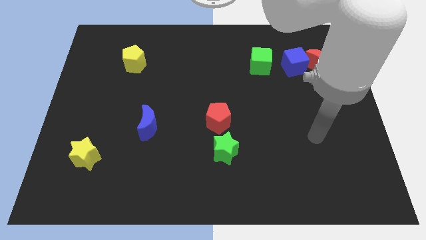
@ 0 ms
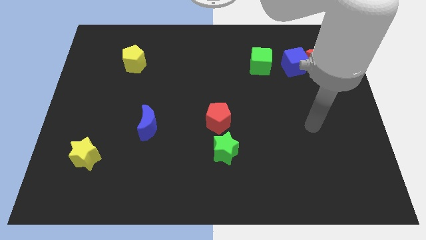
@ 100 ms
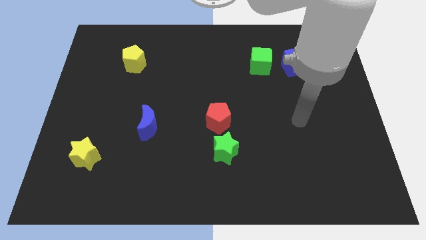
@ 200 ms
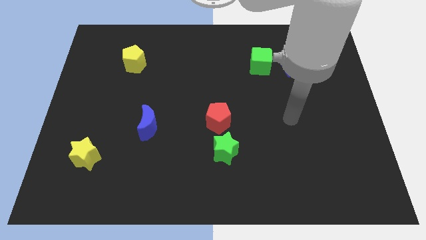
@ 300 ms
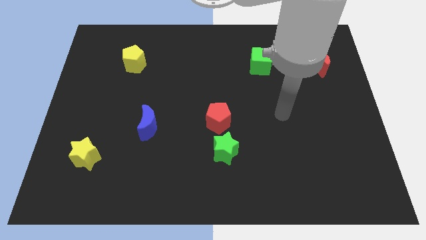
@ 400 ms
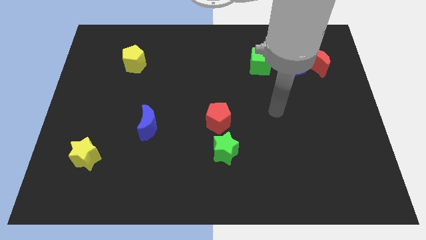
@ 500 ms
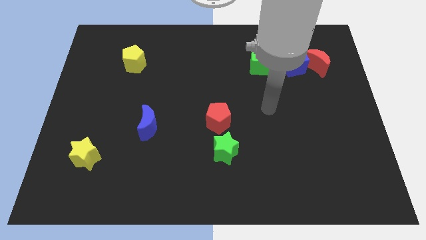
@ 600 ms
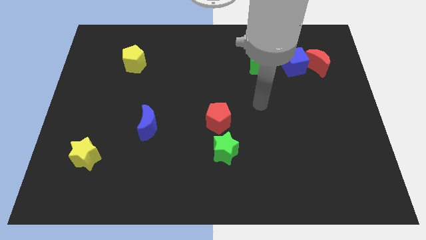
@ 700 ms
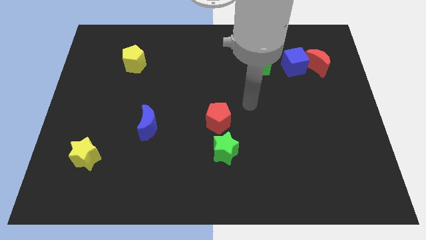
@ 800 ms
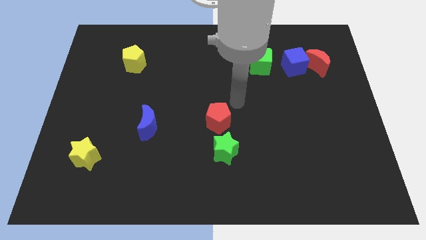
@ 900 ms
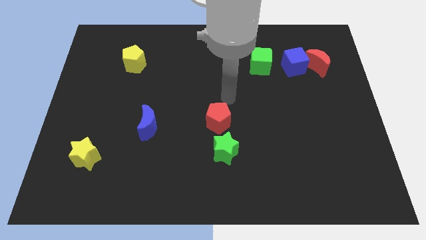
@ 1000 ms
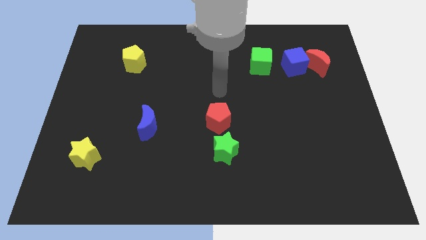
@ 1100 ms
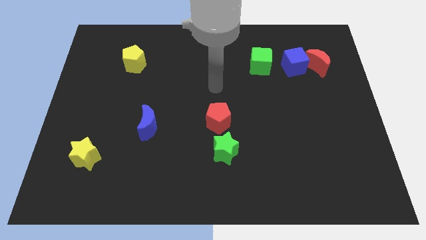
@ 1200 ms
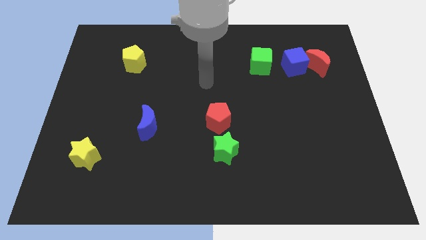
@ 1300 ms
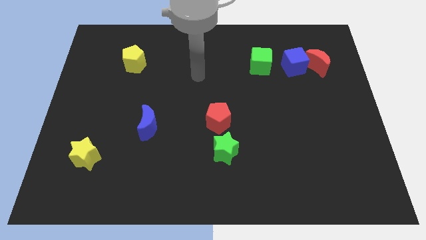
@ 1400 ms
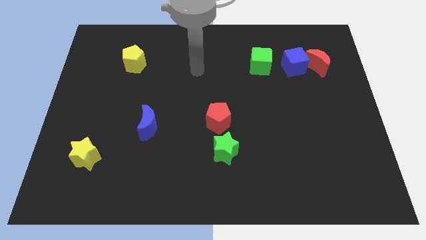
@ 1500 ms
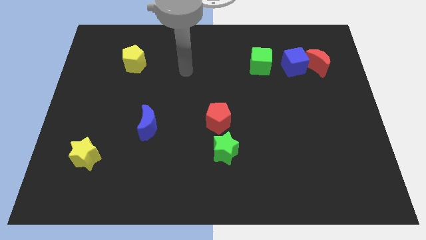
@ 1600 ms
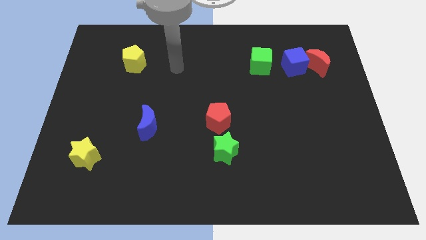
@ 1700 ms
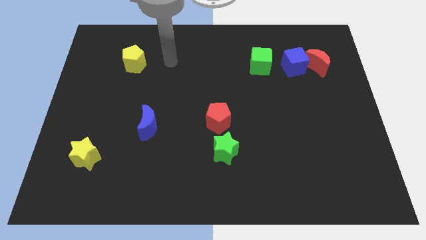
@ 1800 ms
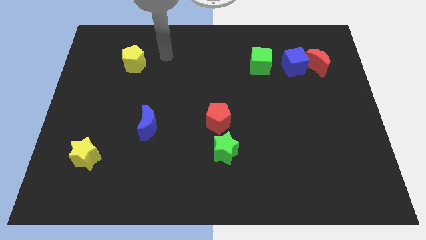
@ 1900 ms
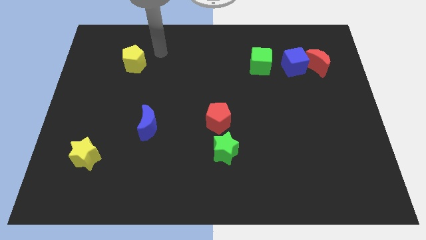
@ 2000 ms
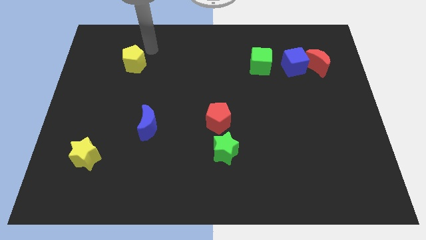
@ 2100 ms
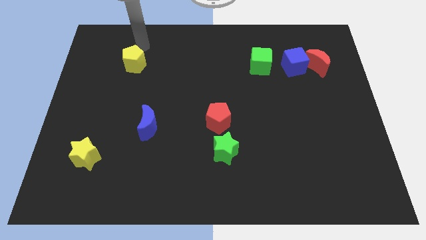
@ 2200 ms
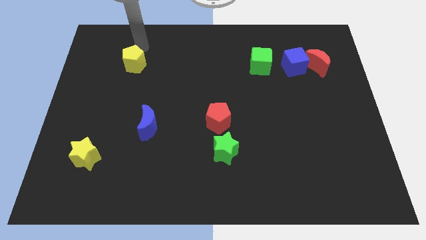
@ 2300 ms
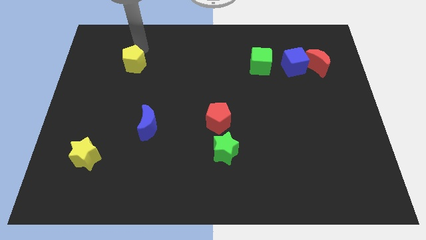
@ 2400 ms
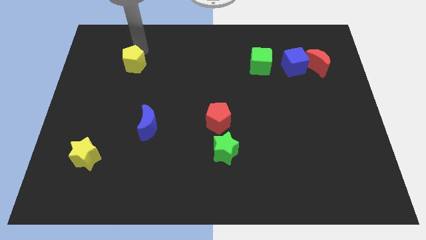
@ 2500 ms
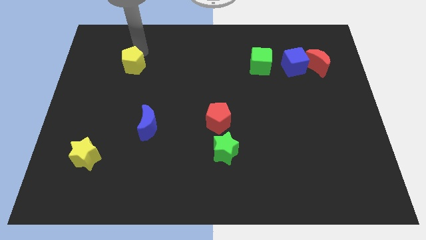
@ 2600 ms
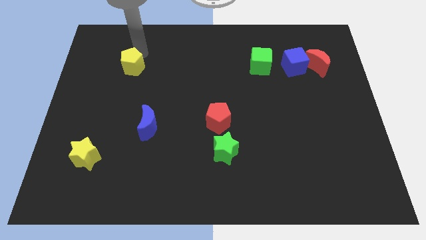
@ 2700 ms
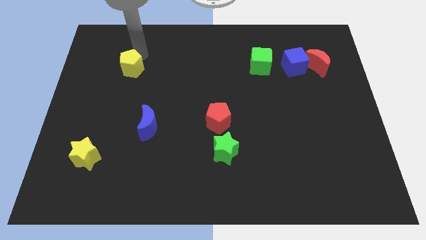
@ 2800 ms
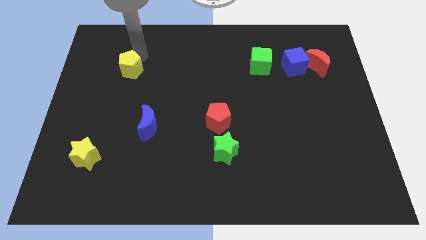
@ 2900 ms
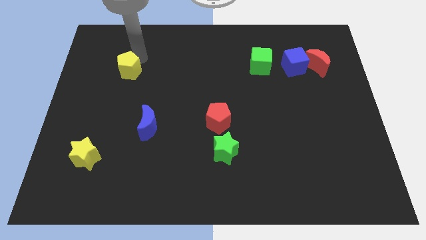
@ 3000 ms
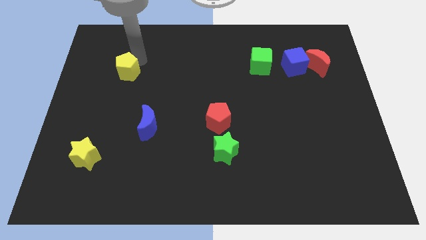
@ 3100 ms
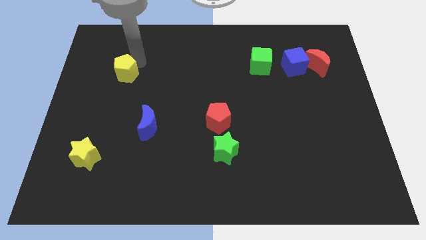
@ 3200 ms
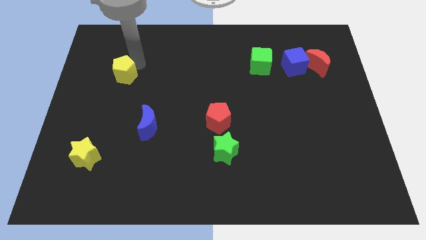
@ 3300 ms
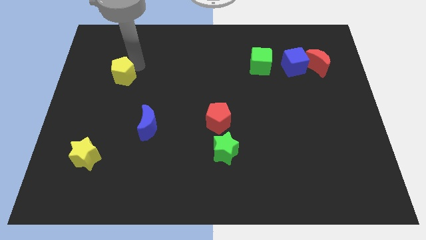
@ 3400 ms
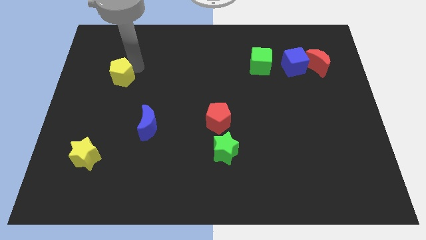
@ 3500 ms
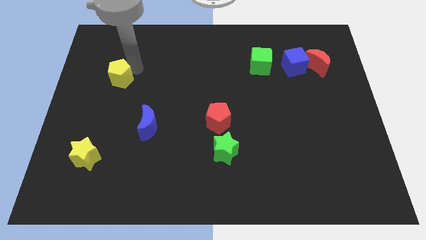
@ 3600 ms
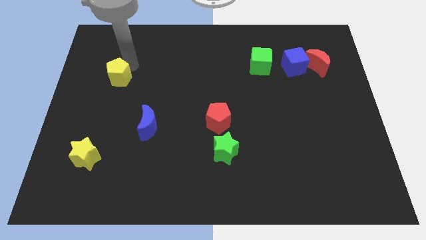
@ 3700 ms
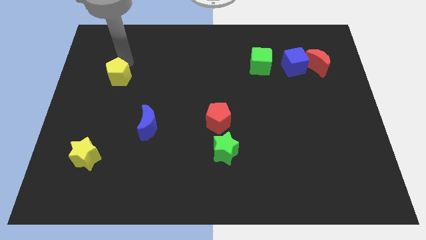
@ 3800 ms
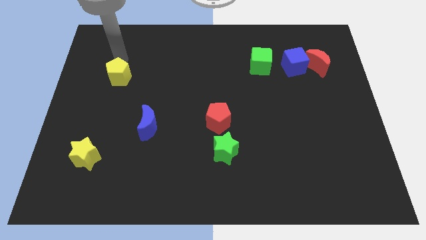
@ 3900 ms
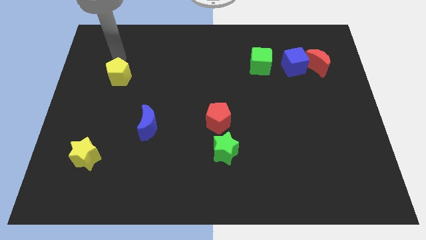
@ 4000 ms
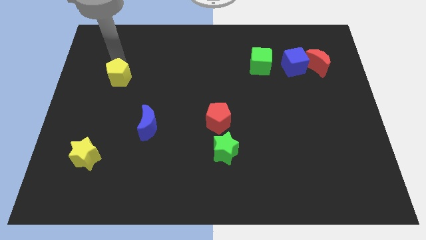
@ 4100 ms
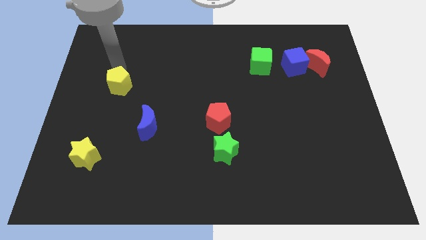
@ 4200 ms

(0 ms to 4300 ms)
push the yellow pentagon somewhat downwards

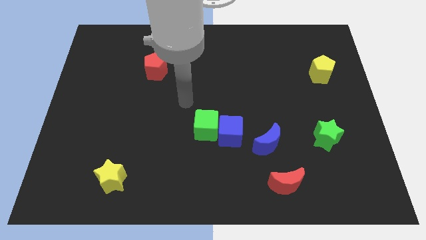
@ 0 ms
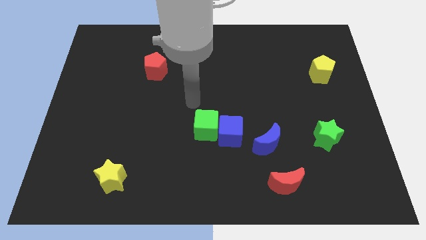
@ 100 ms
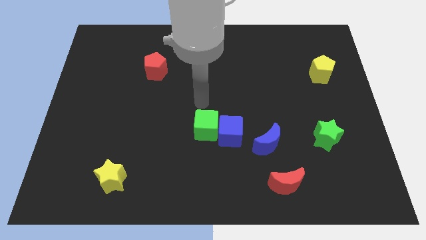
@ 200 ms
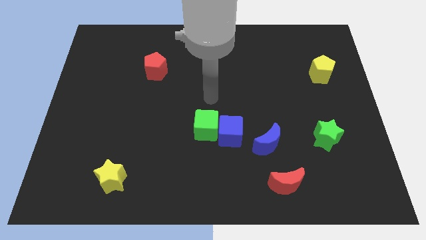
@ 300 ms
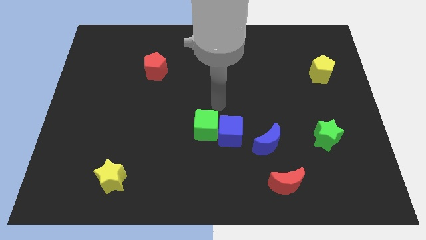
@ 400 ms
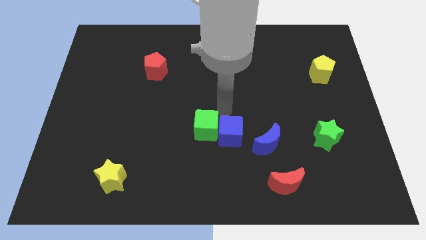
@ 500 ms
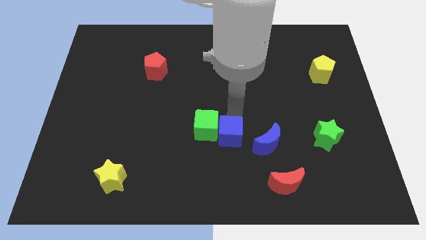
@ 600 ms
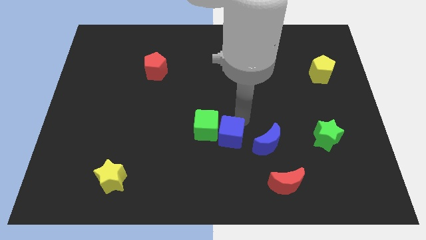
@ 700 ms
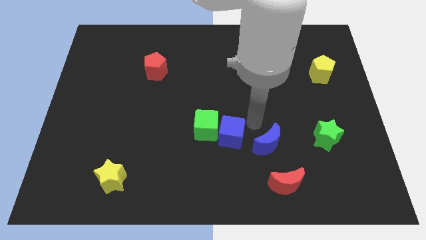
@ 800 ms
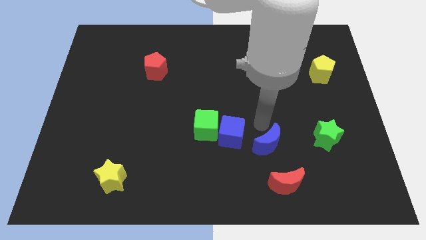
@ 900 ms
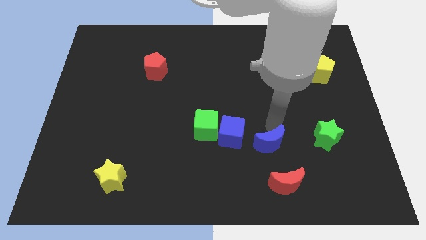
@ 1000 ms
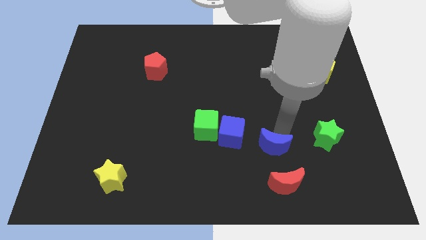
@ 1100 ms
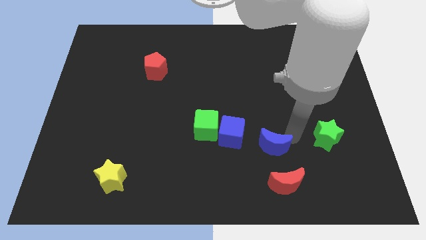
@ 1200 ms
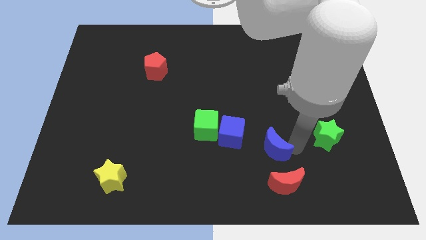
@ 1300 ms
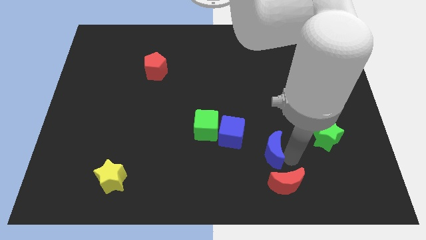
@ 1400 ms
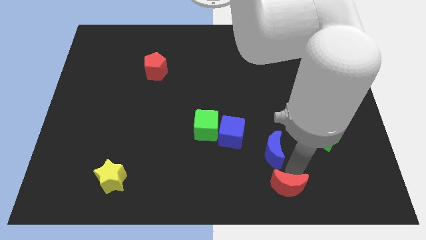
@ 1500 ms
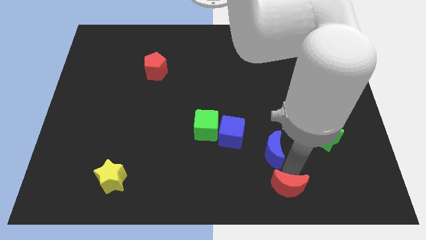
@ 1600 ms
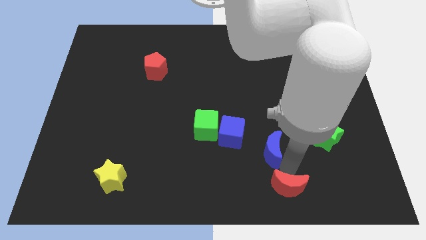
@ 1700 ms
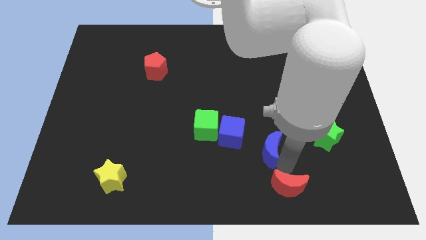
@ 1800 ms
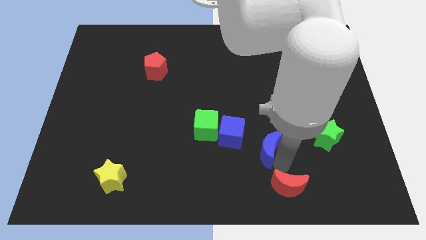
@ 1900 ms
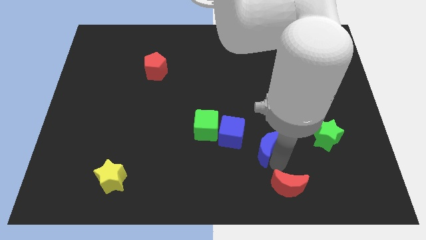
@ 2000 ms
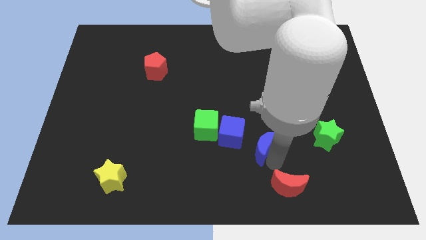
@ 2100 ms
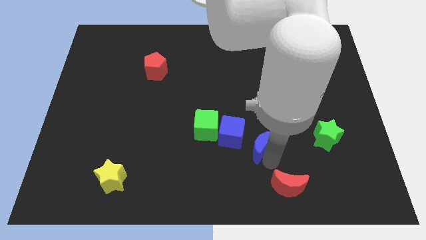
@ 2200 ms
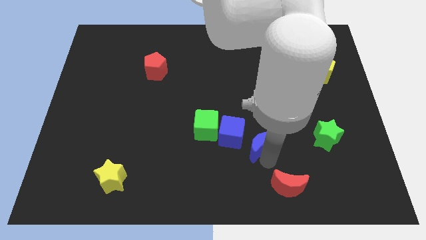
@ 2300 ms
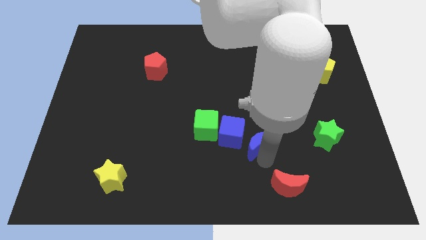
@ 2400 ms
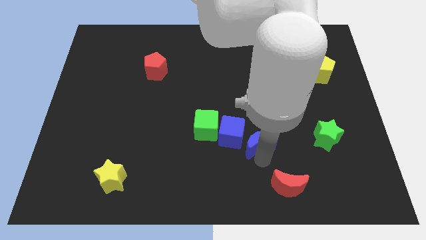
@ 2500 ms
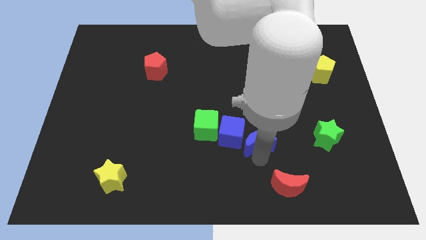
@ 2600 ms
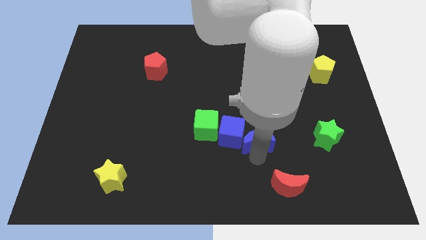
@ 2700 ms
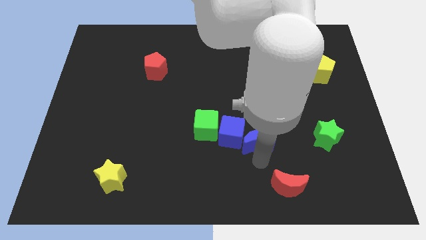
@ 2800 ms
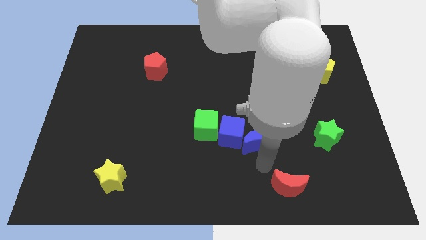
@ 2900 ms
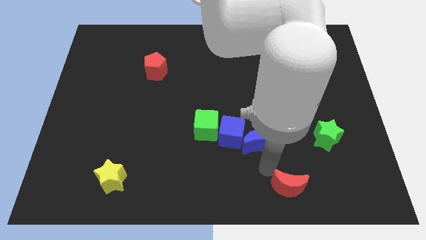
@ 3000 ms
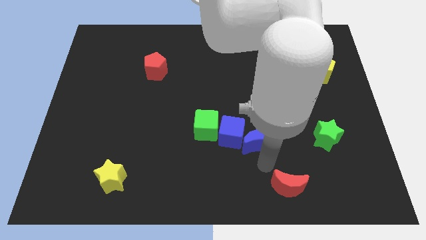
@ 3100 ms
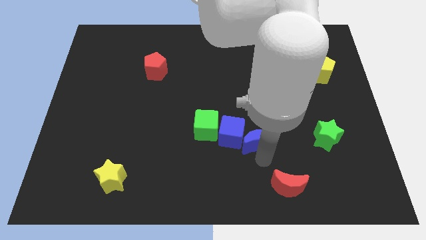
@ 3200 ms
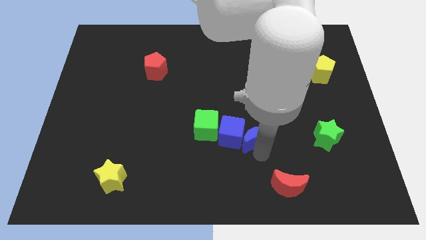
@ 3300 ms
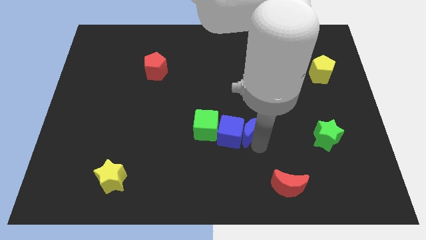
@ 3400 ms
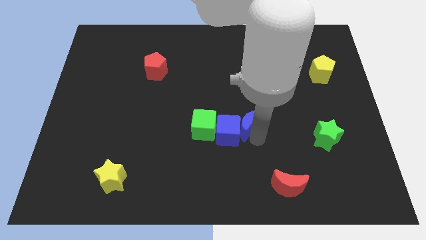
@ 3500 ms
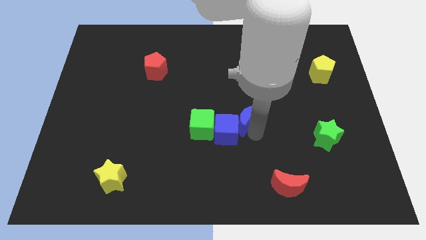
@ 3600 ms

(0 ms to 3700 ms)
slightly move the blue moon up and then left
